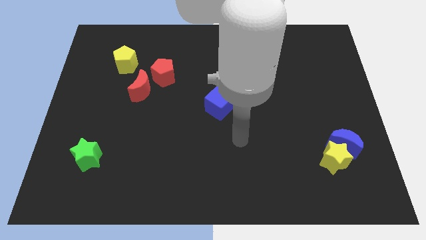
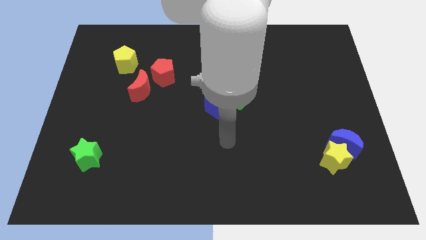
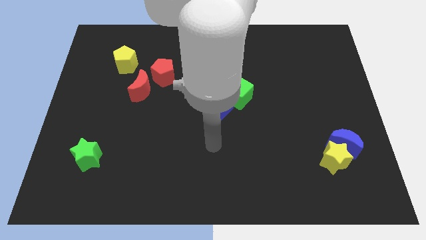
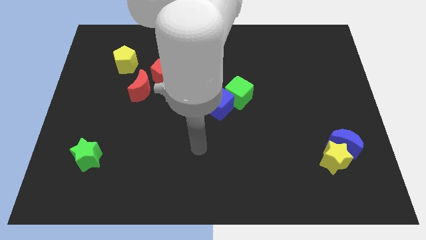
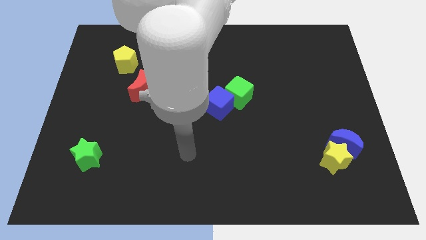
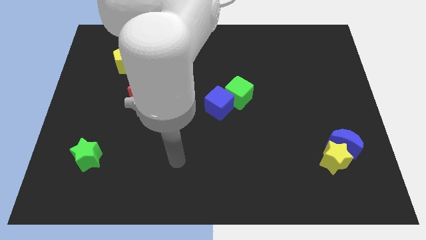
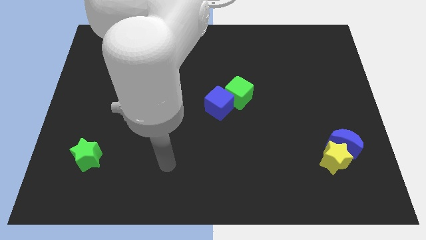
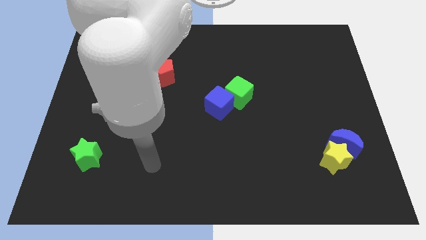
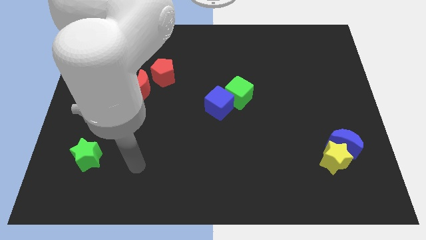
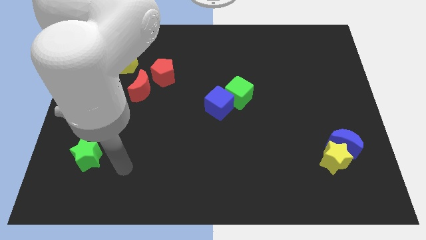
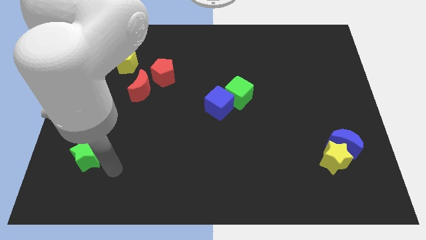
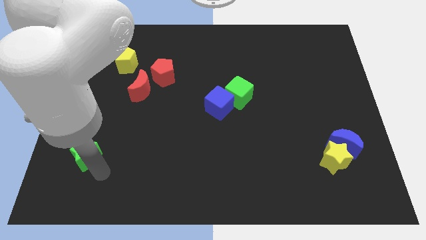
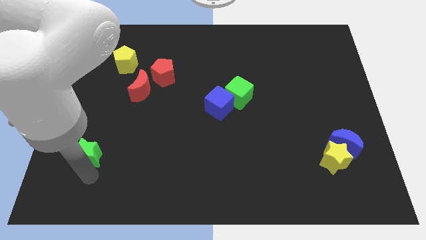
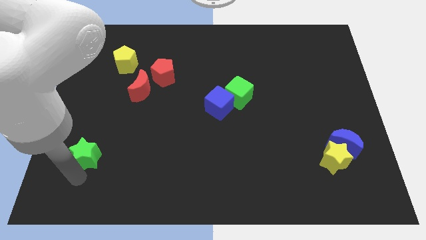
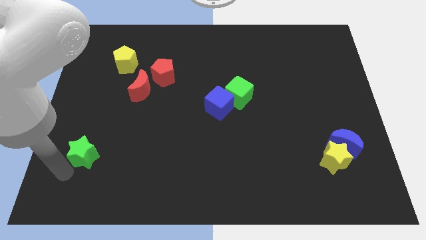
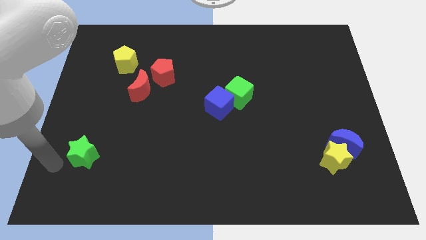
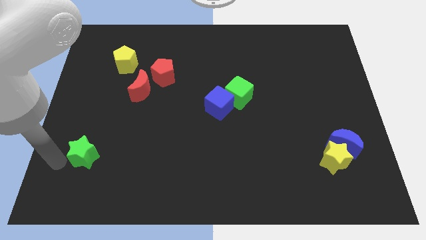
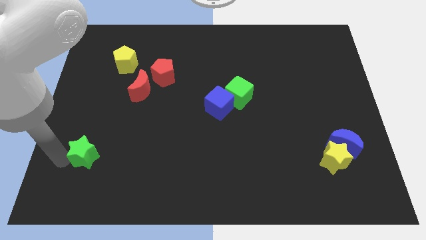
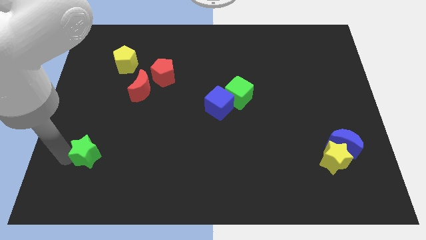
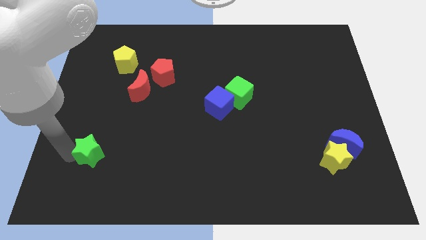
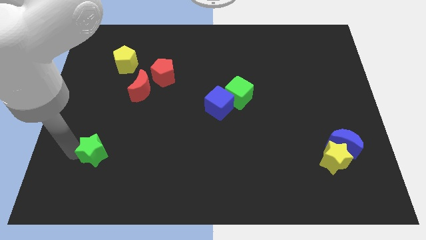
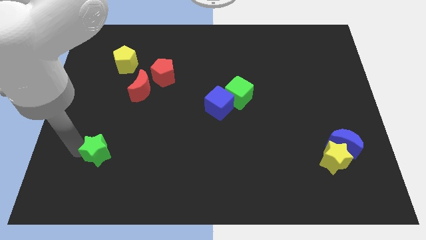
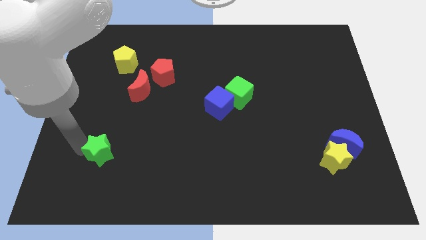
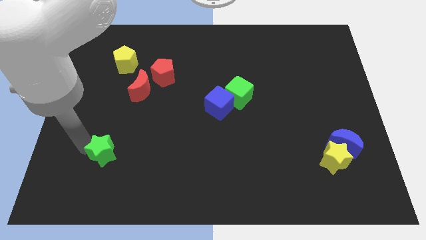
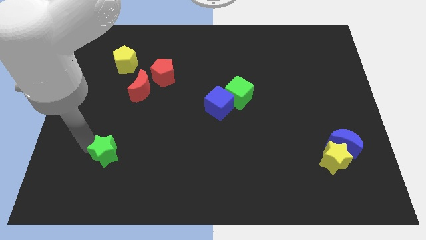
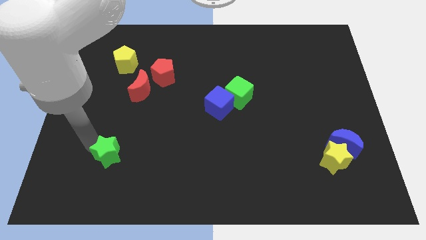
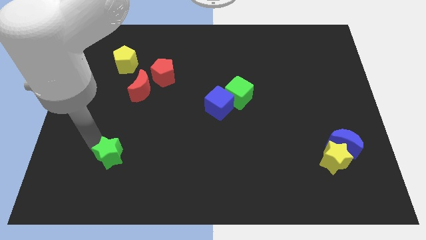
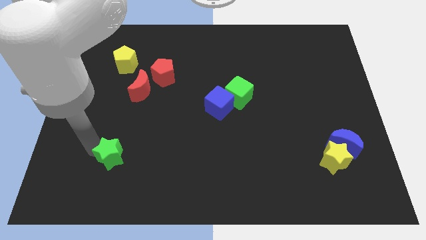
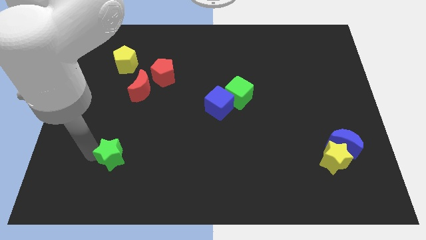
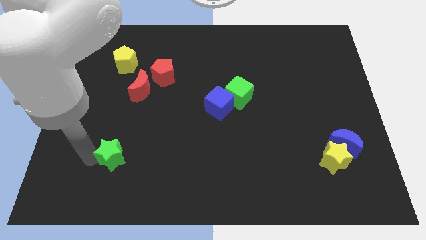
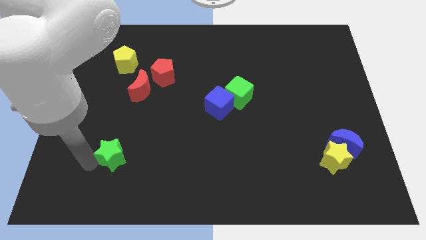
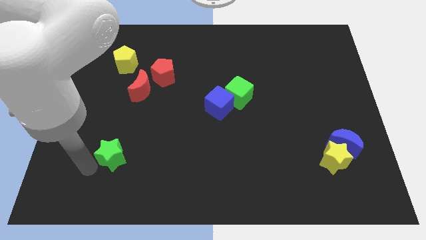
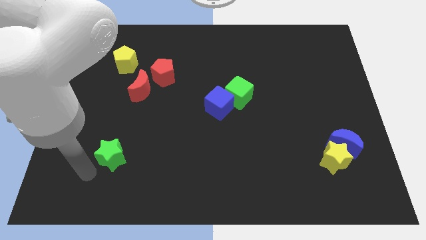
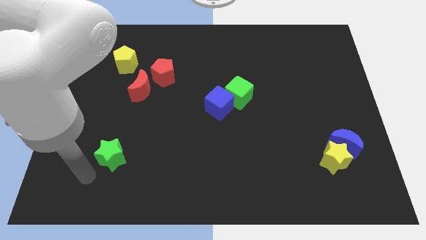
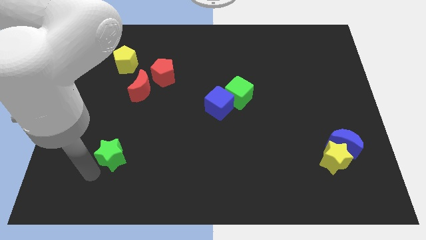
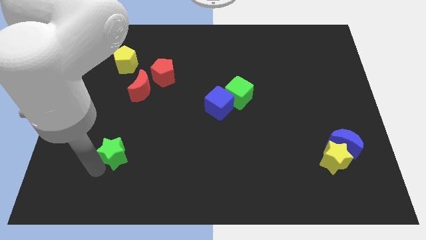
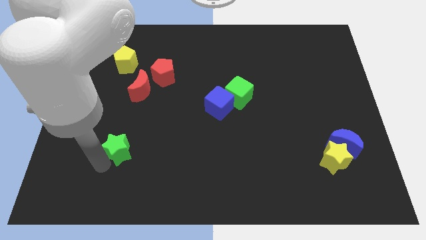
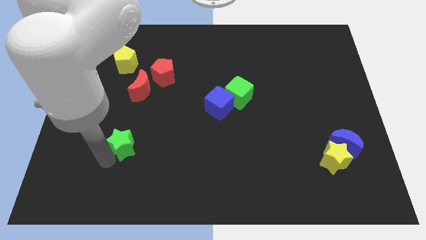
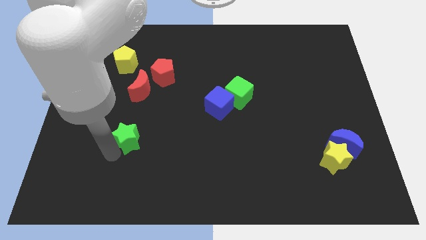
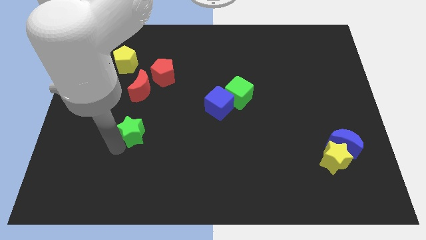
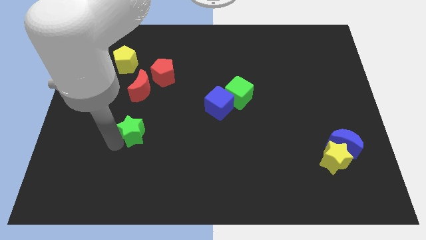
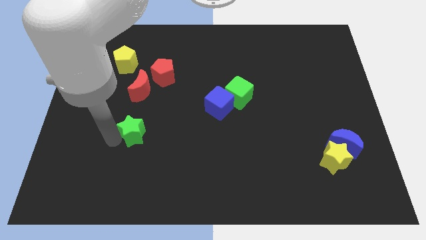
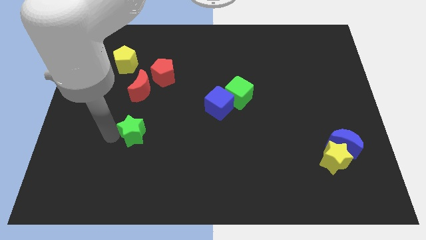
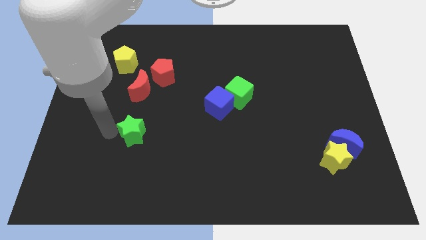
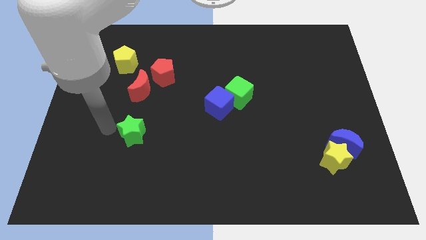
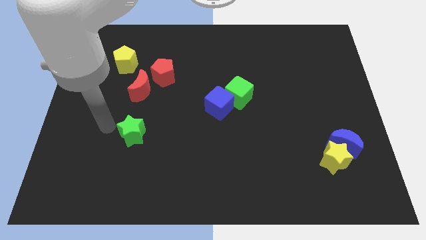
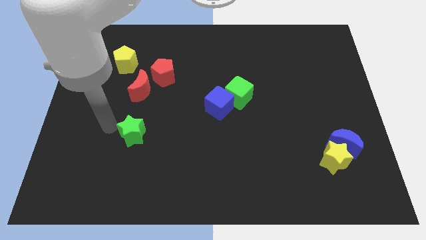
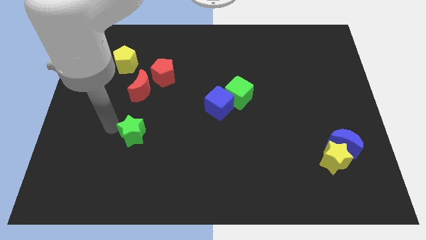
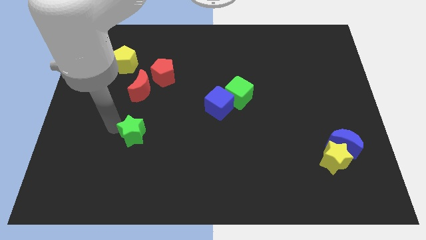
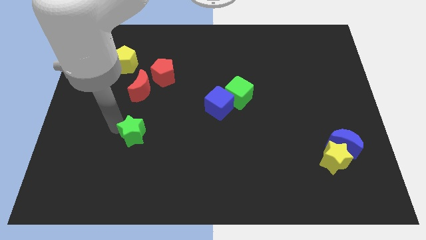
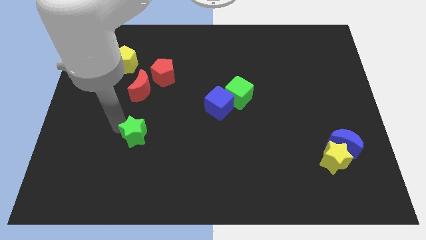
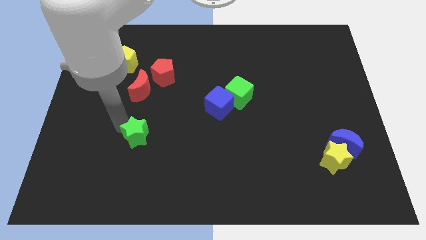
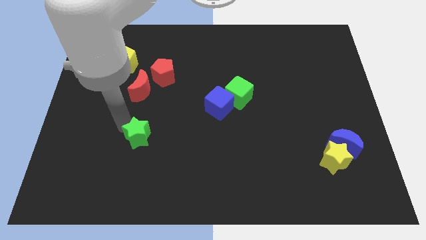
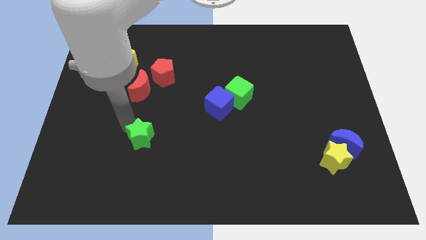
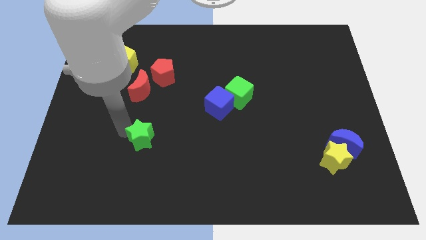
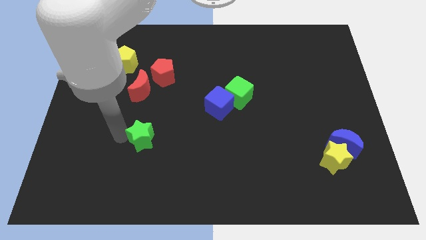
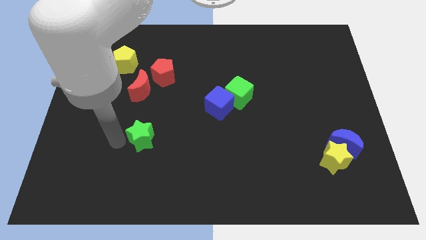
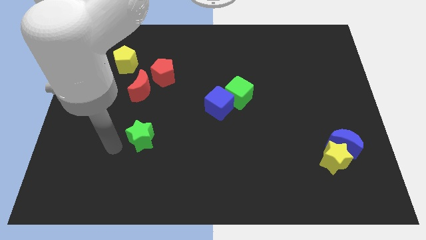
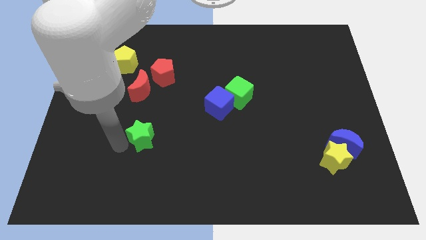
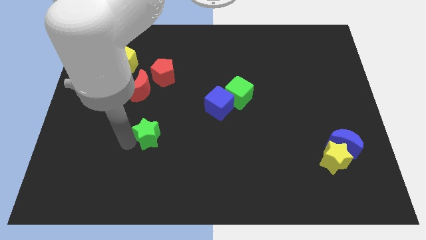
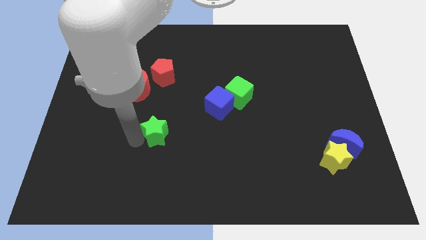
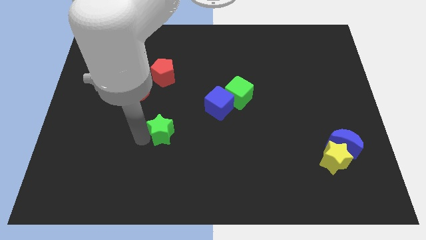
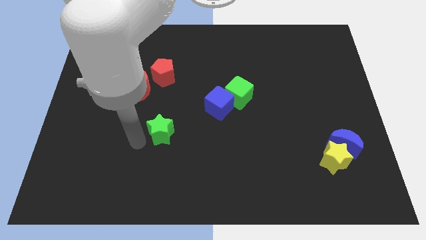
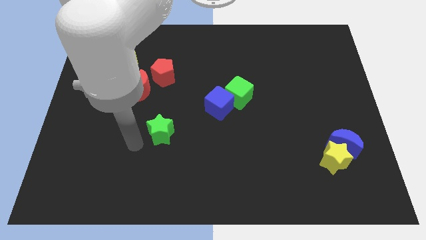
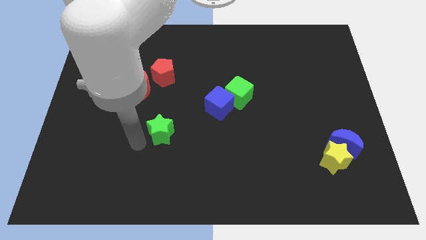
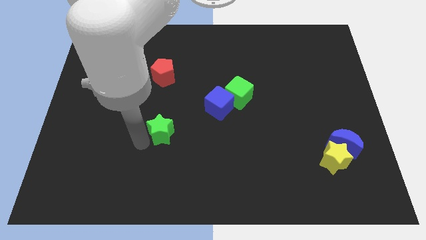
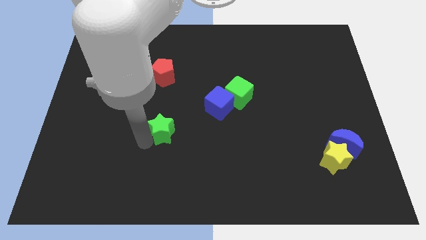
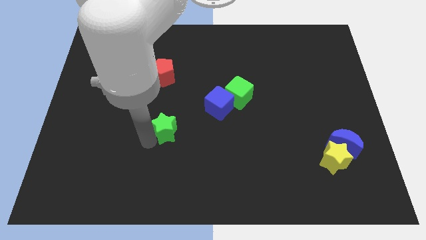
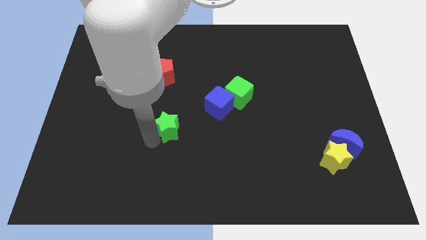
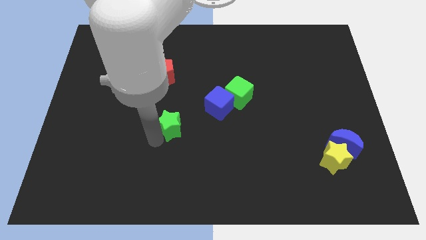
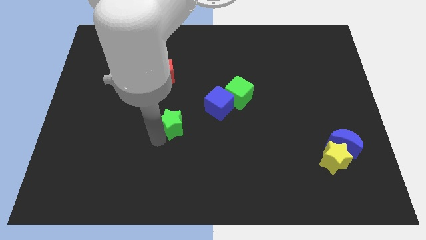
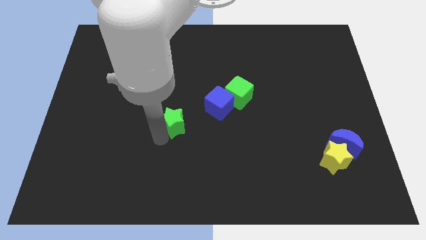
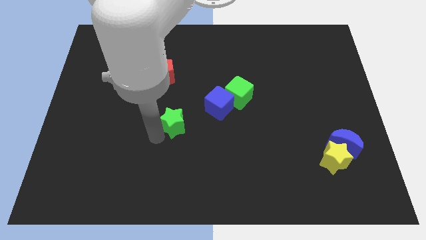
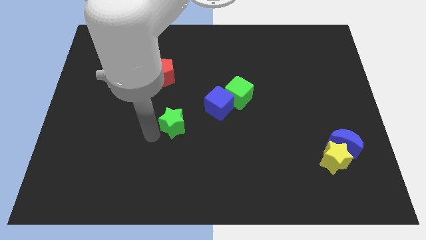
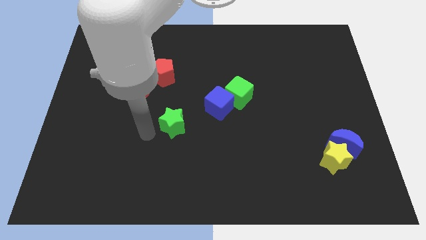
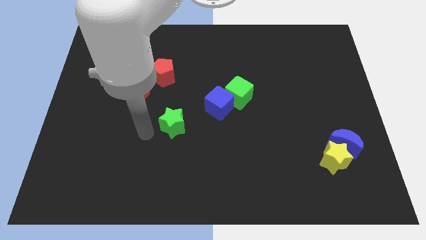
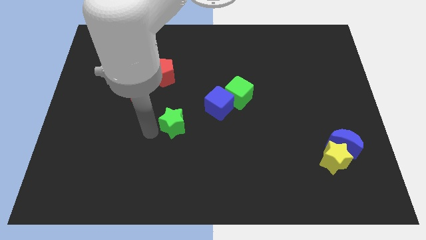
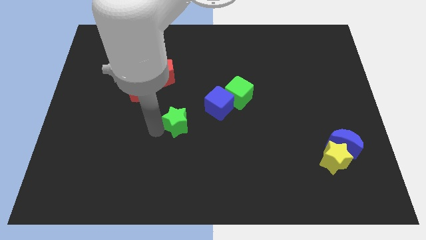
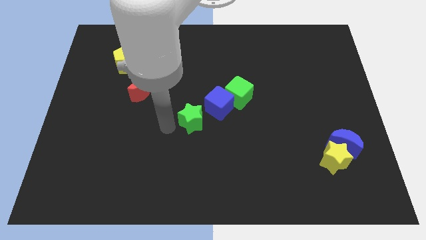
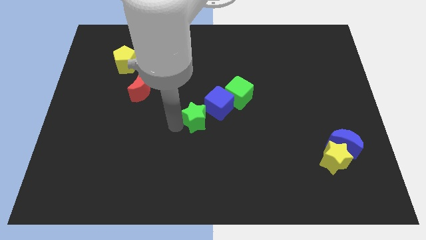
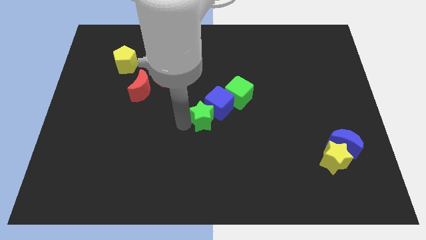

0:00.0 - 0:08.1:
move the green star towards the blue cube
